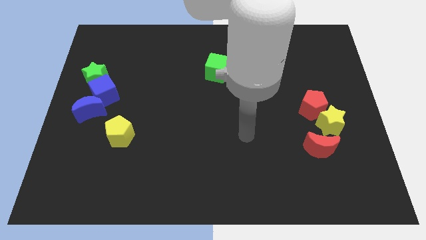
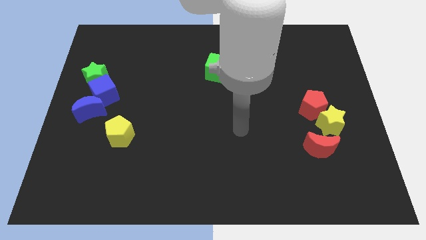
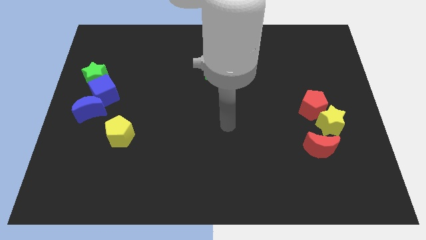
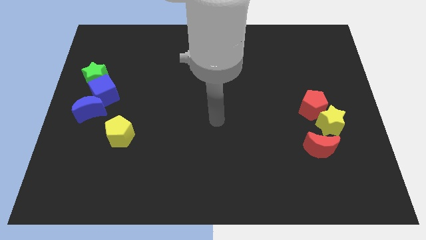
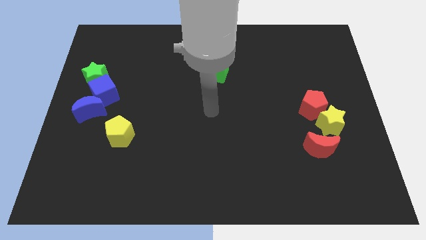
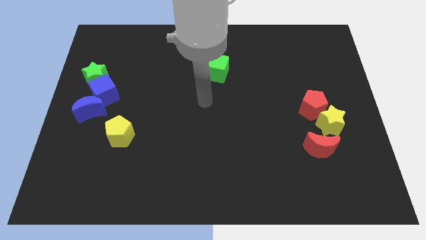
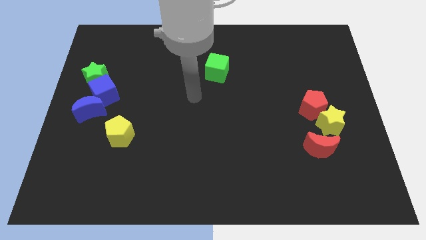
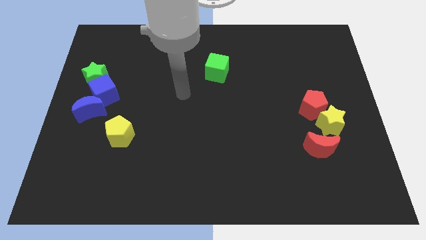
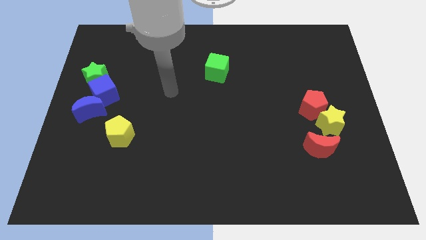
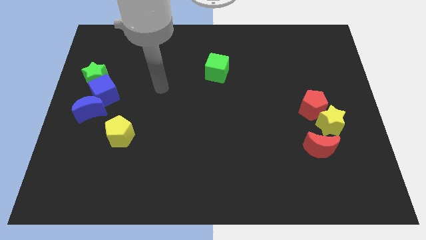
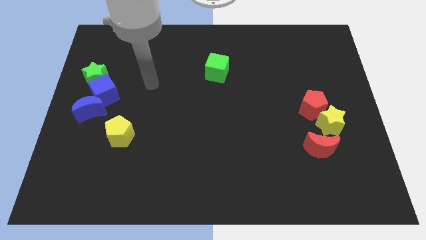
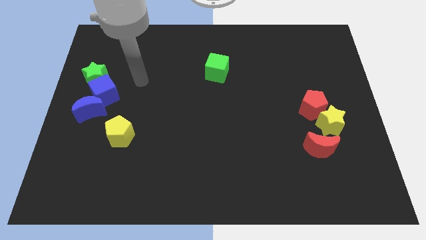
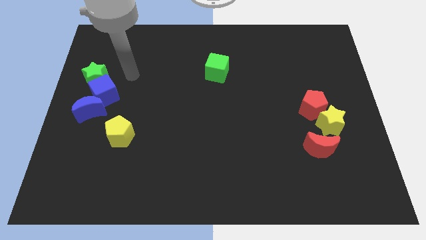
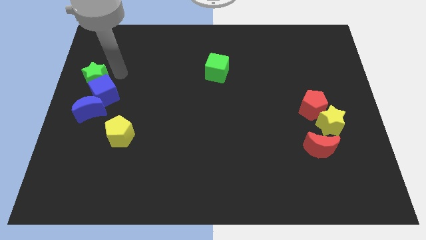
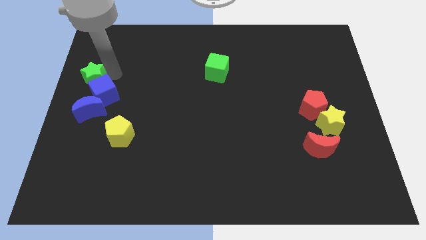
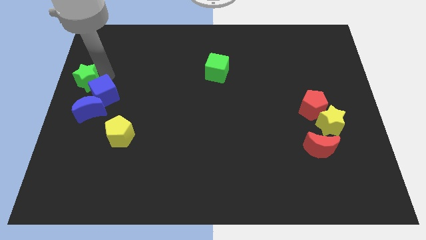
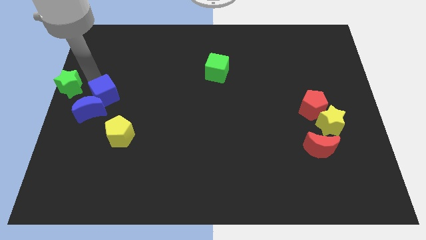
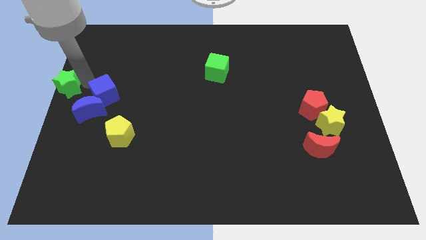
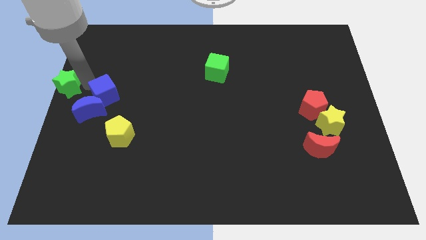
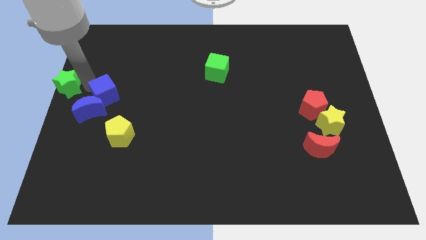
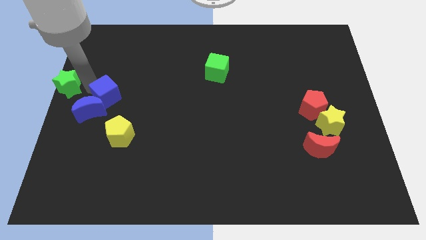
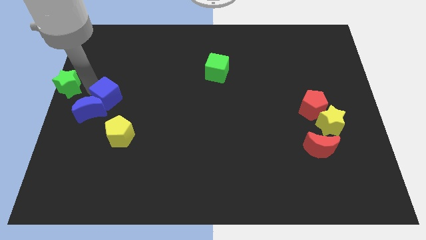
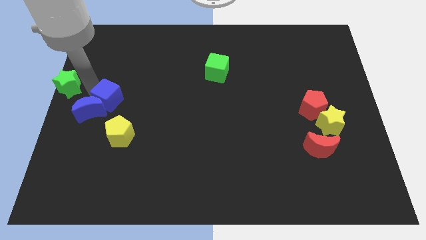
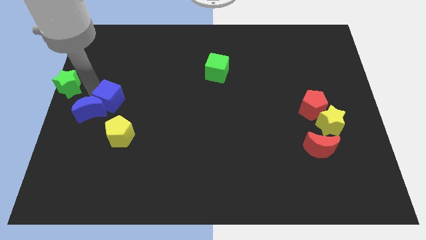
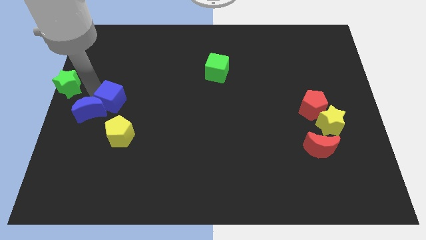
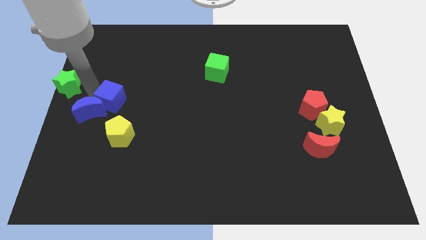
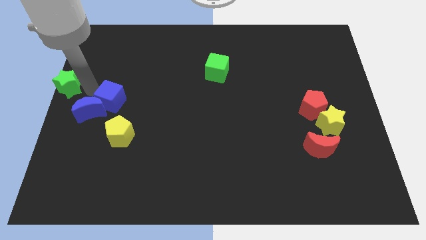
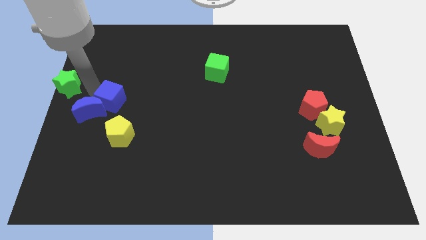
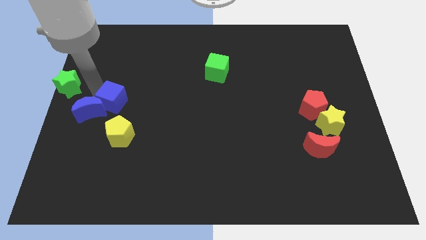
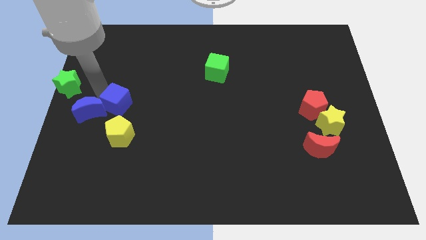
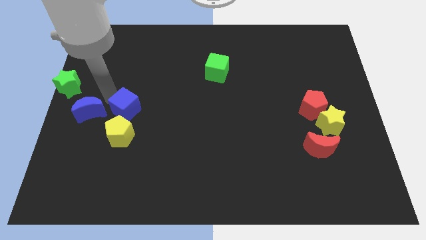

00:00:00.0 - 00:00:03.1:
move the blue cube slightly downwards and then to the right

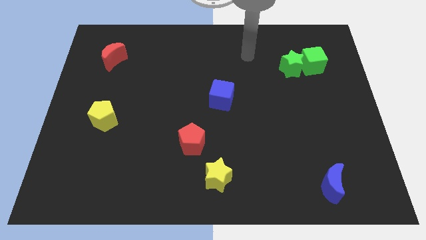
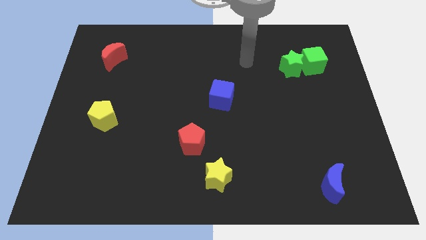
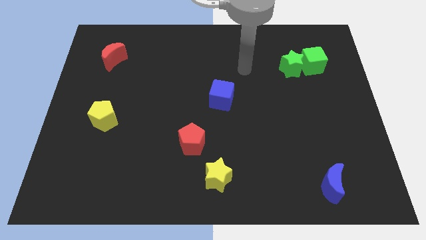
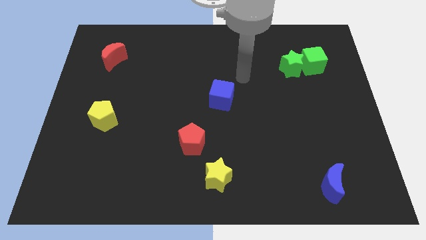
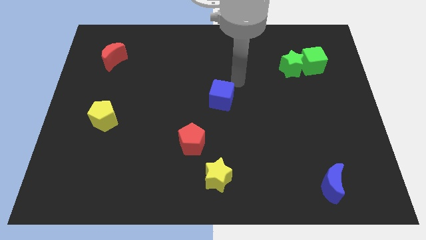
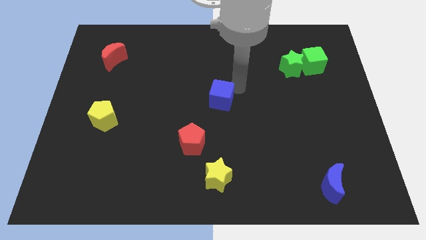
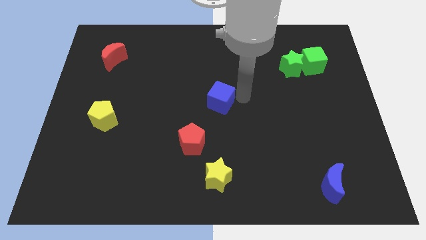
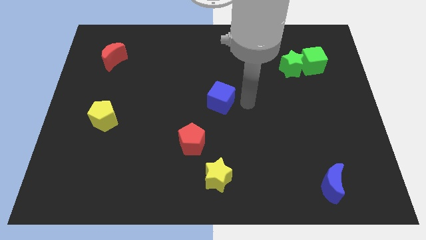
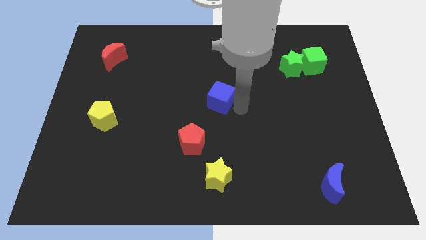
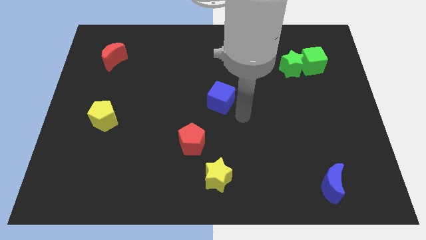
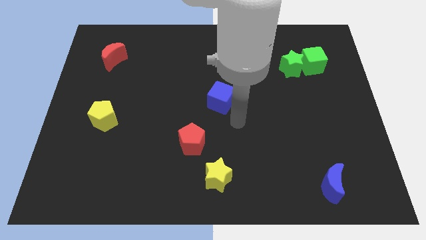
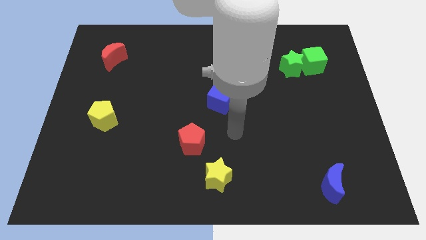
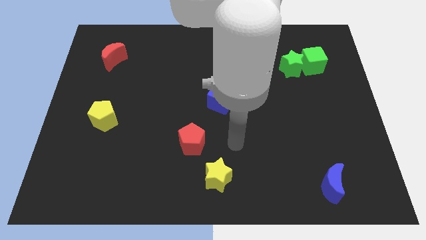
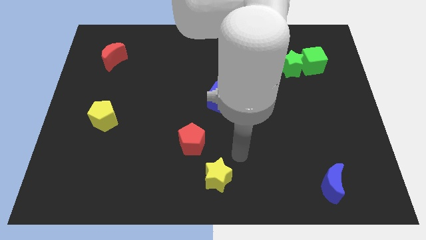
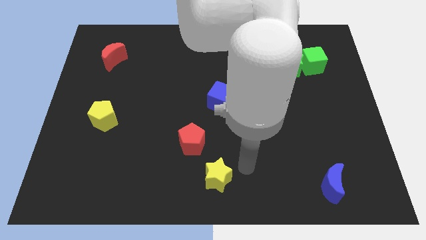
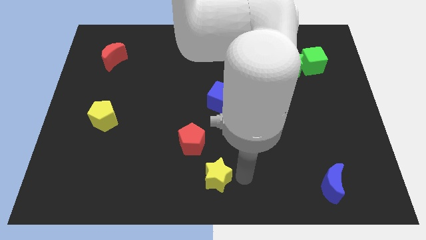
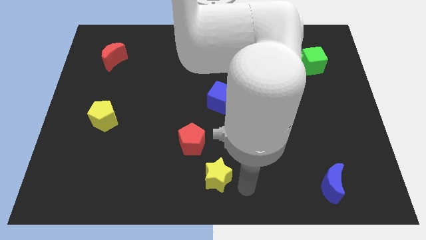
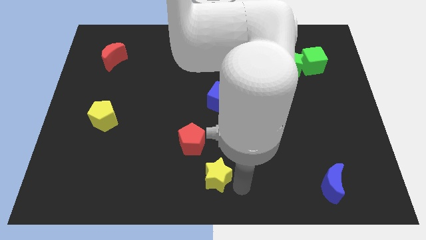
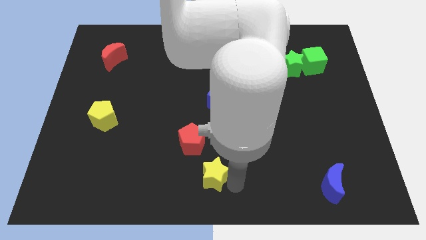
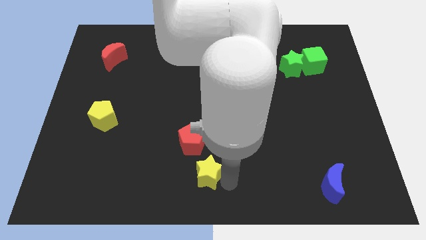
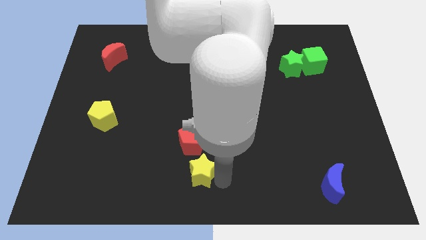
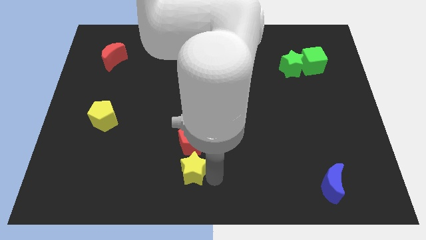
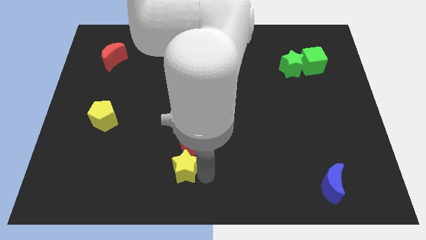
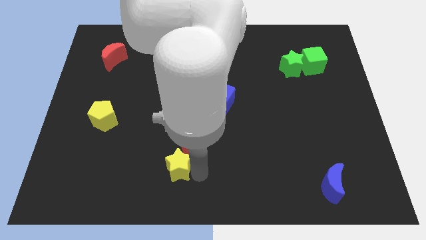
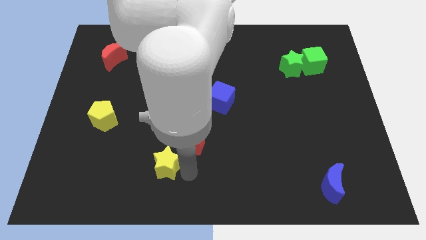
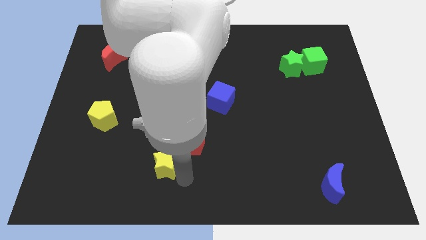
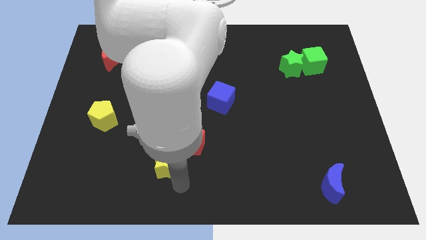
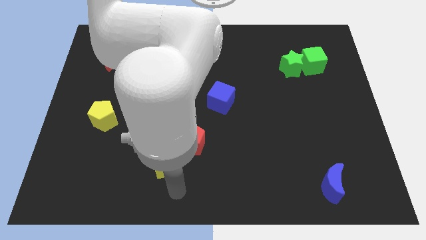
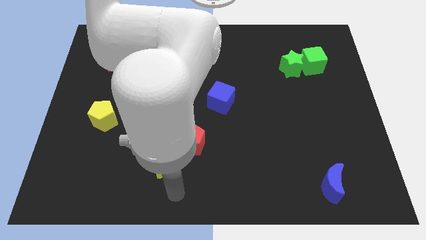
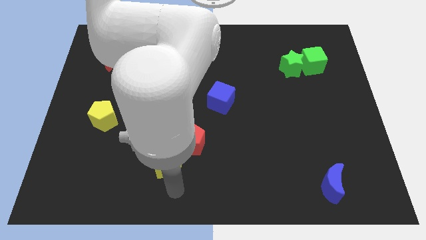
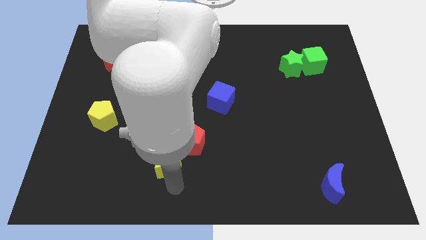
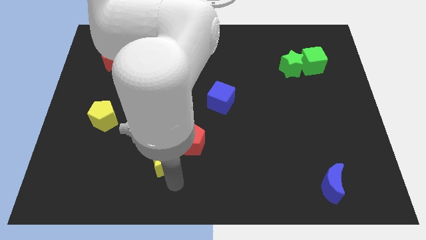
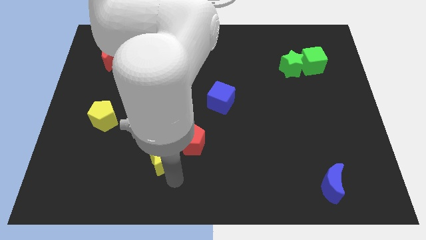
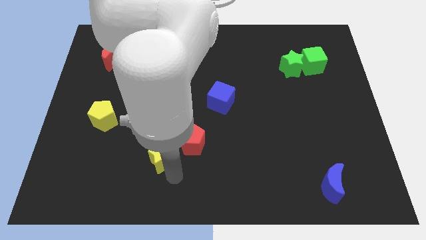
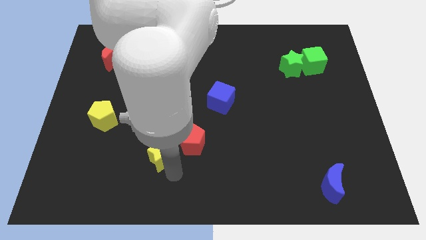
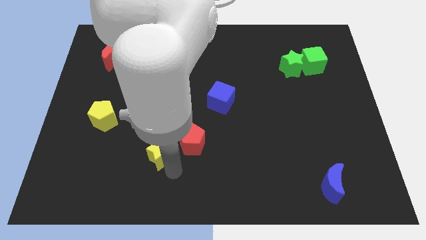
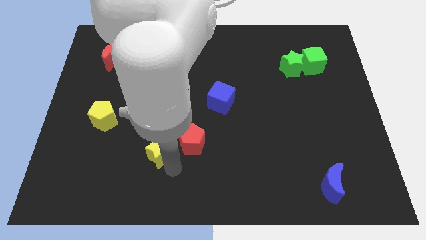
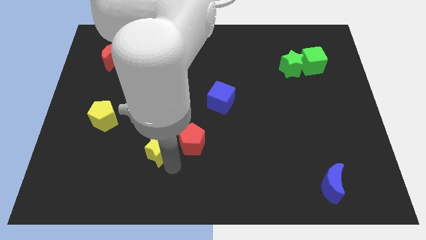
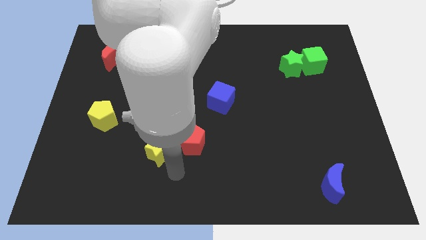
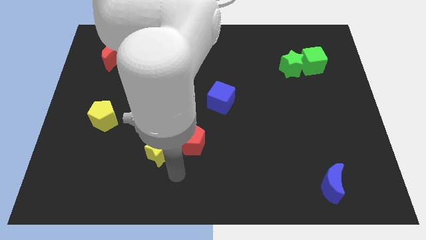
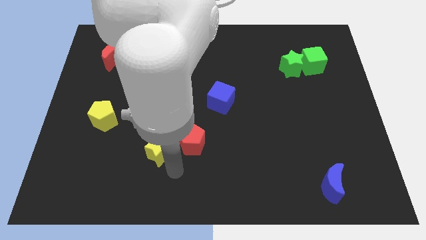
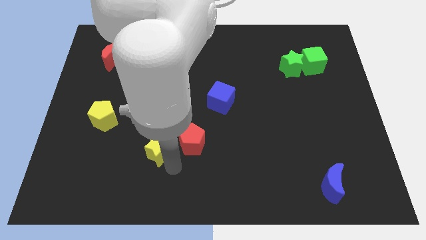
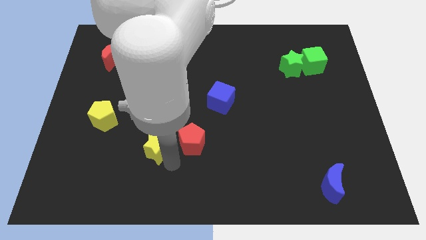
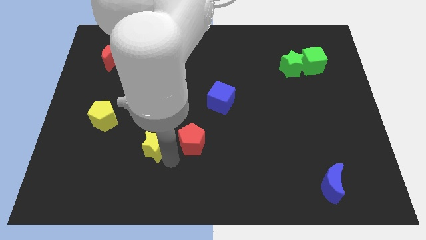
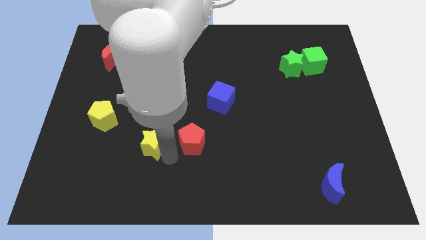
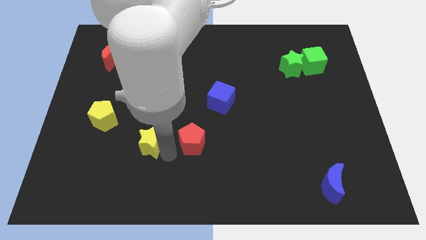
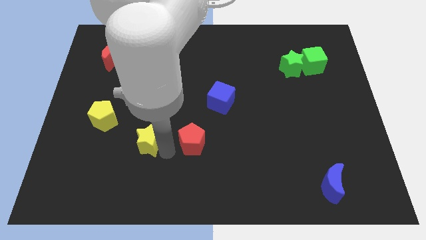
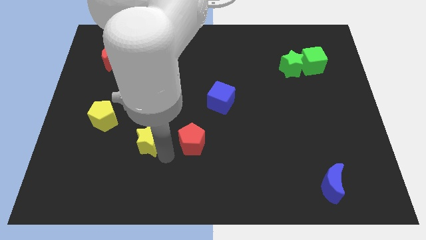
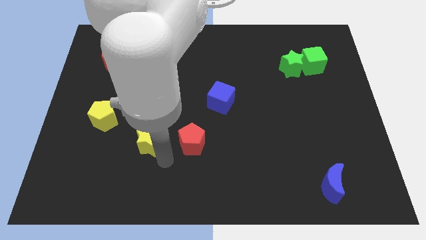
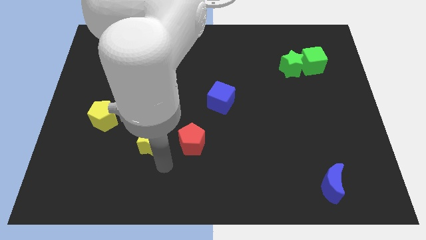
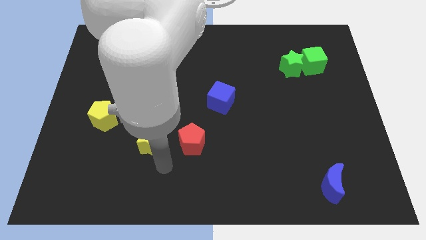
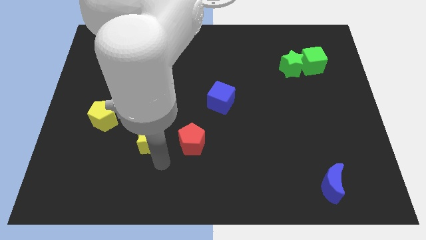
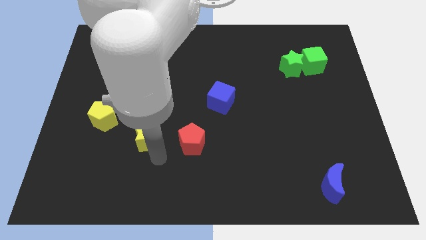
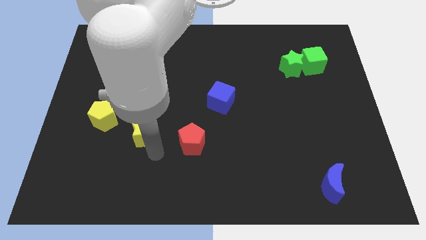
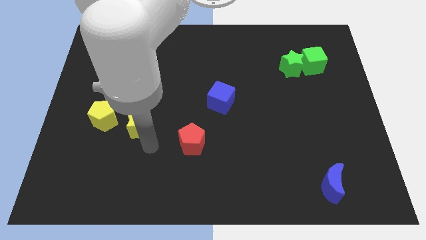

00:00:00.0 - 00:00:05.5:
move the yellow star upwards and to the left diagonally
